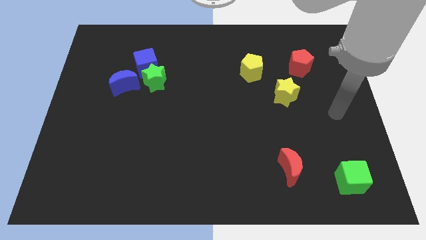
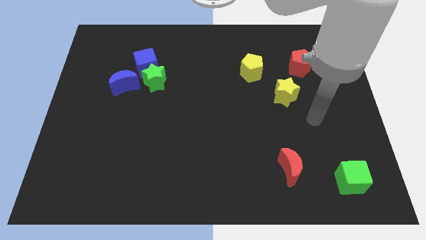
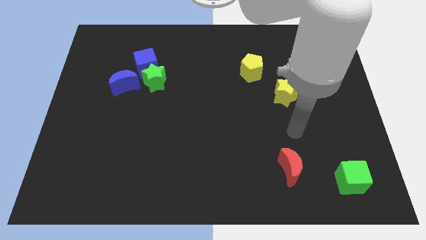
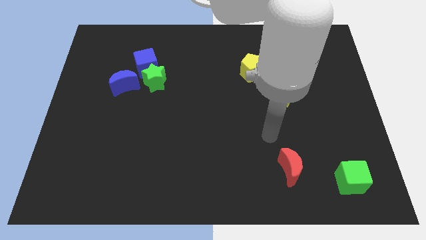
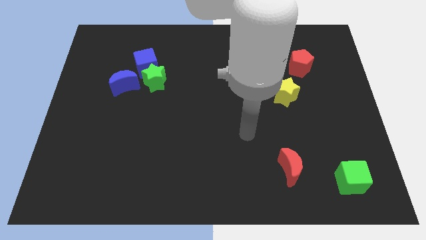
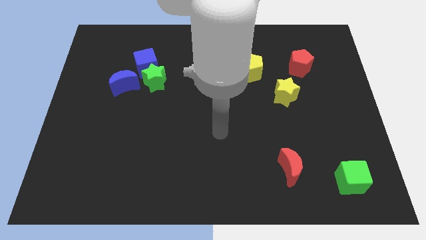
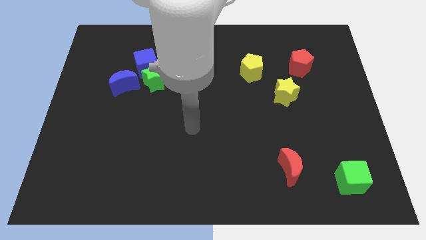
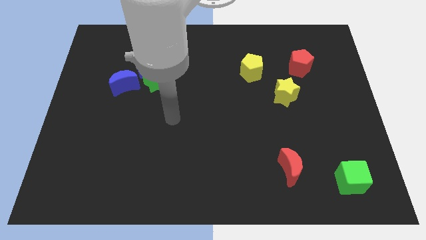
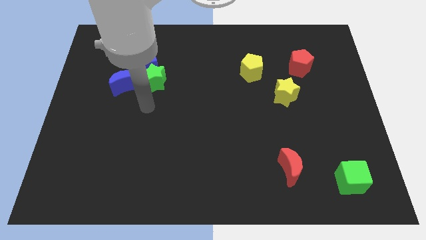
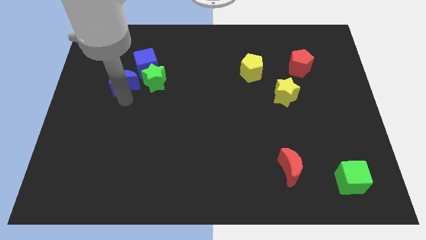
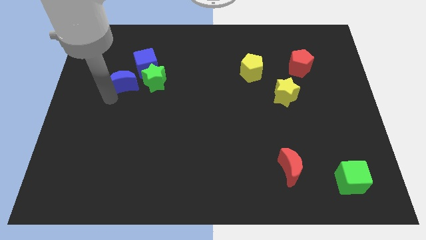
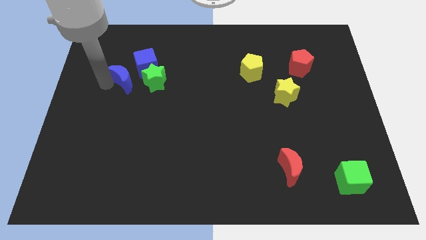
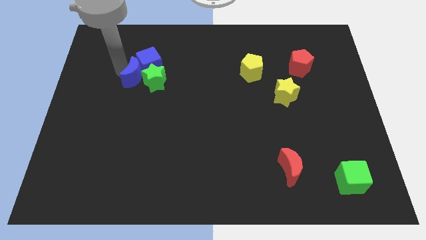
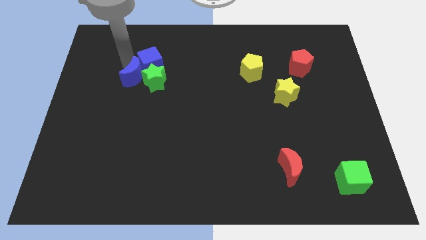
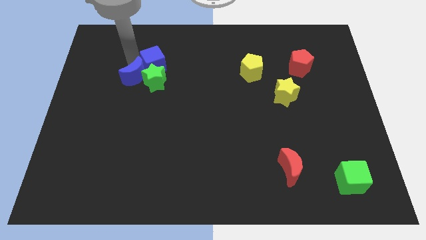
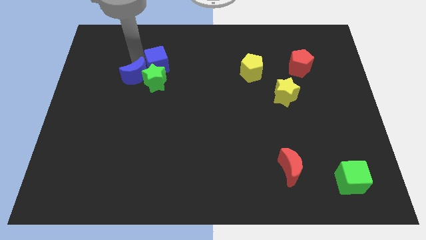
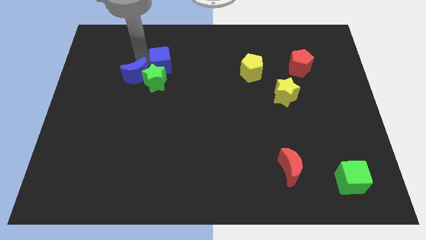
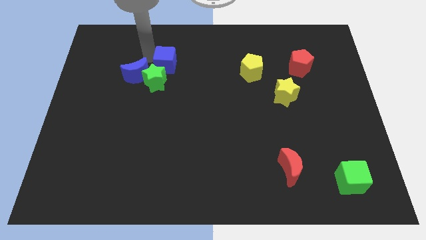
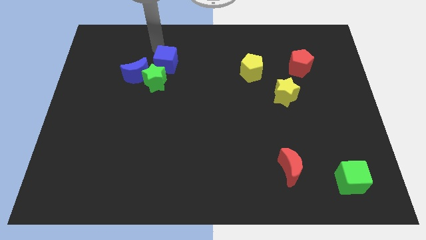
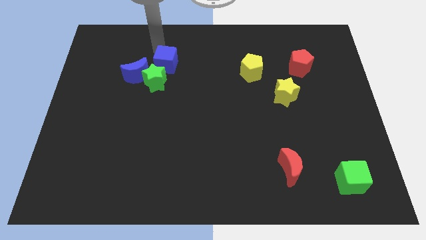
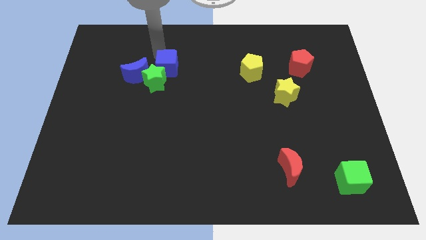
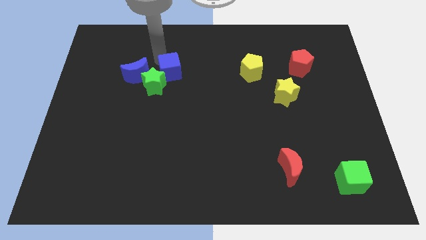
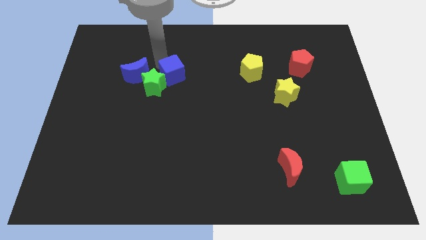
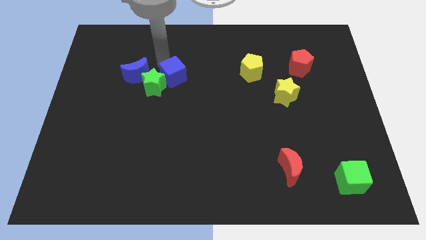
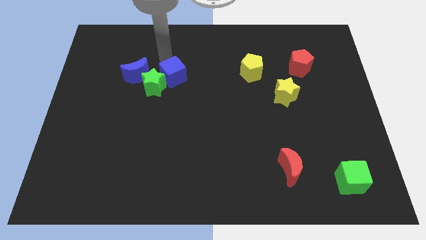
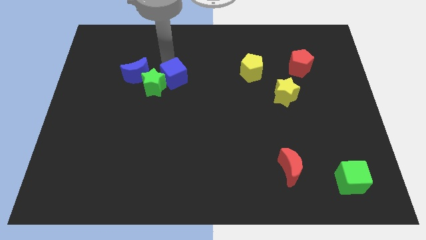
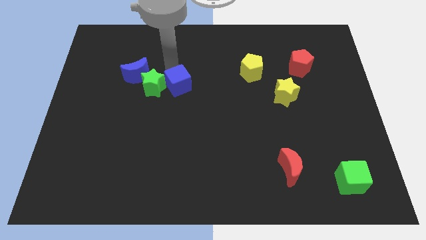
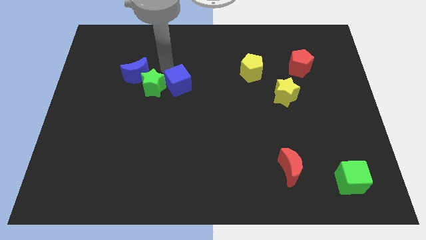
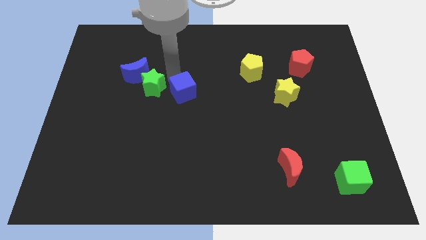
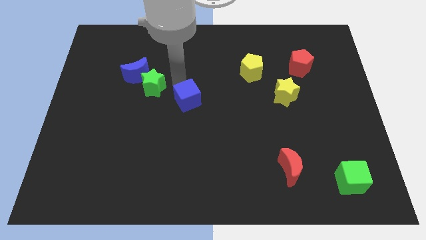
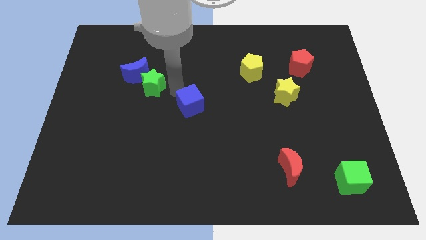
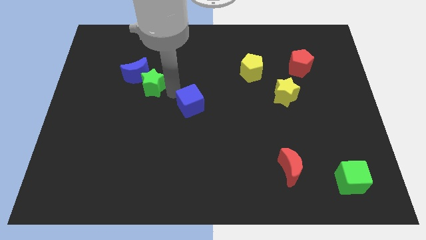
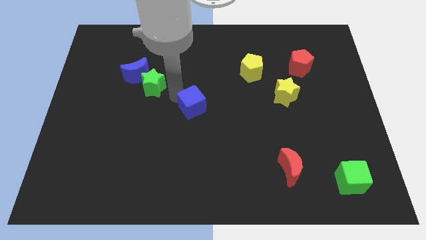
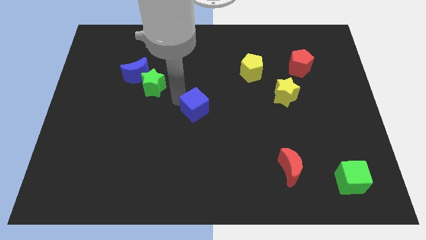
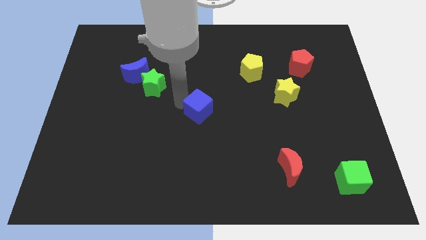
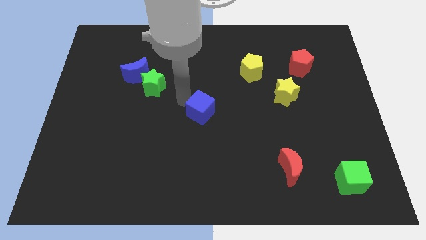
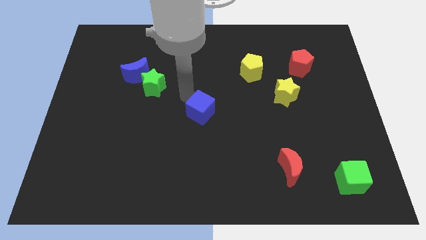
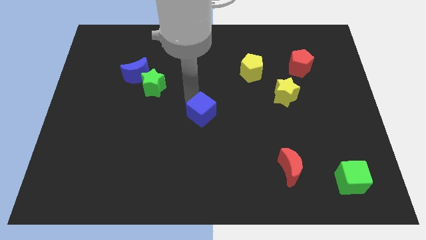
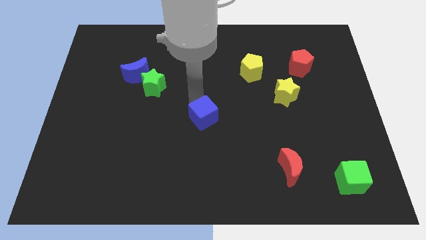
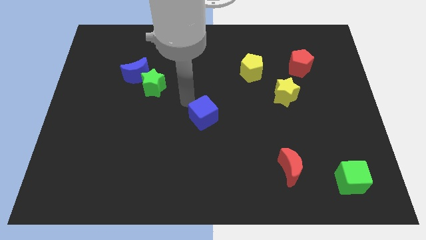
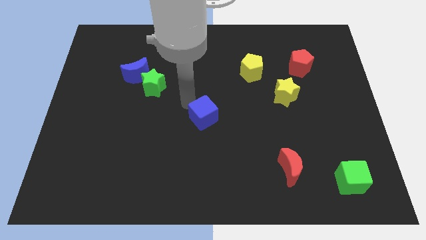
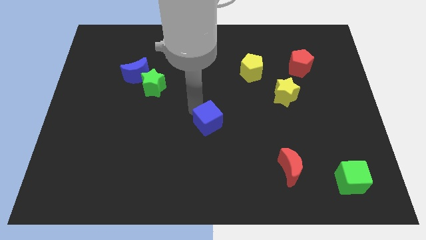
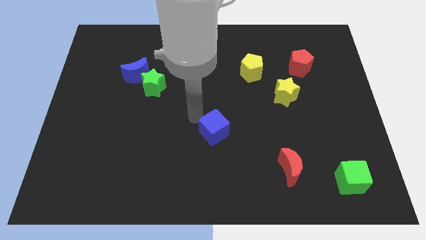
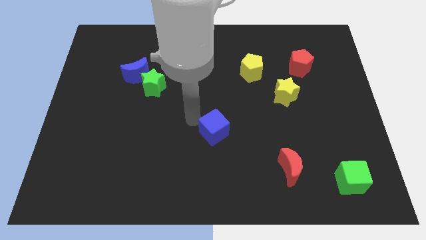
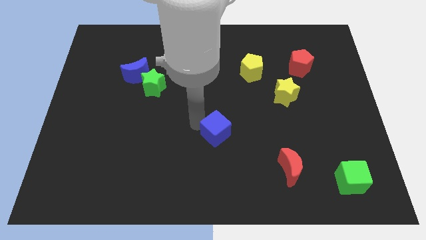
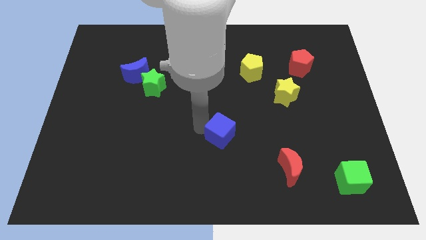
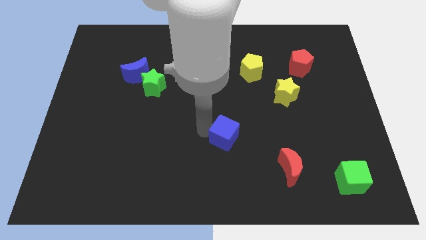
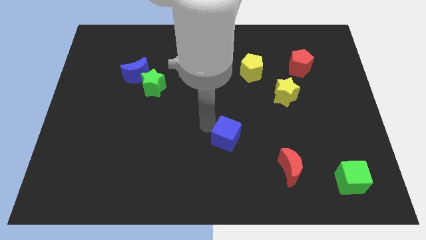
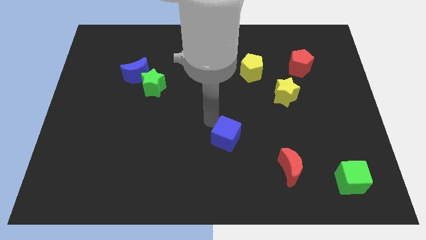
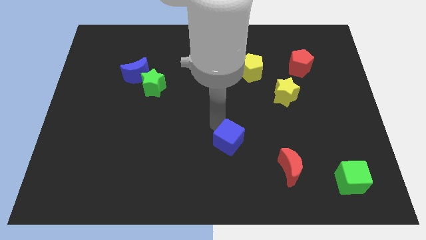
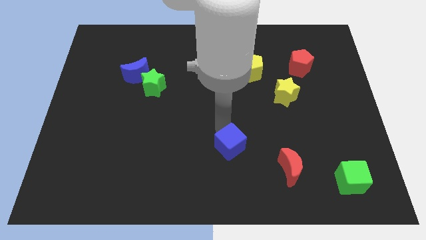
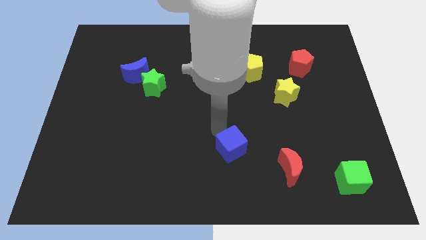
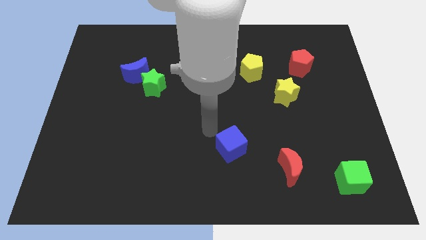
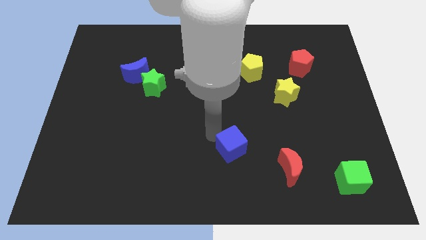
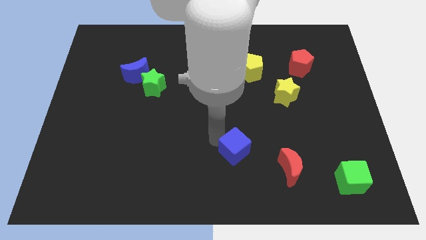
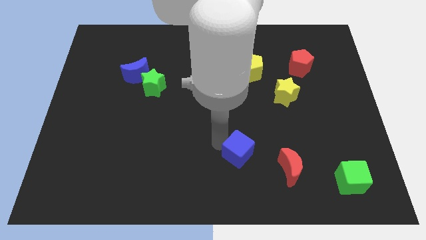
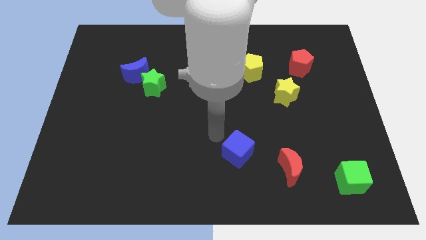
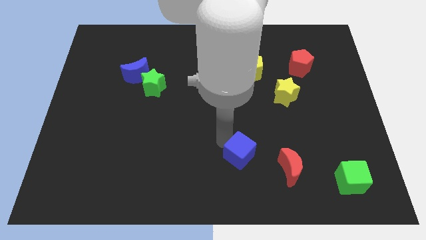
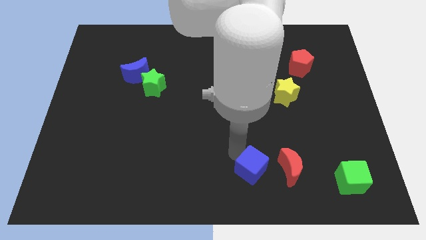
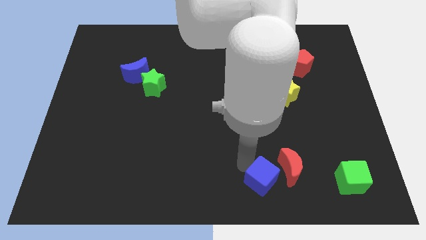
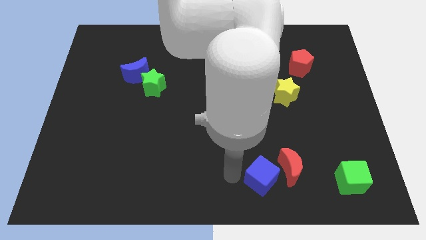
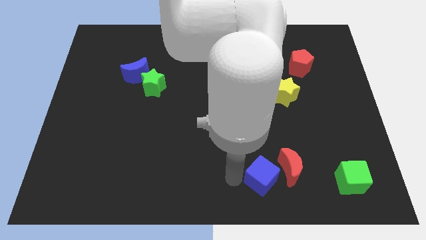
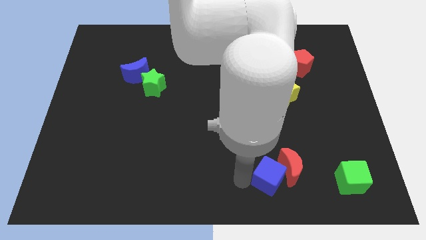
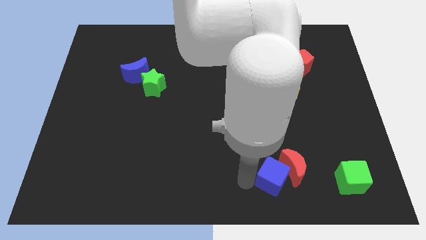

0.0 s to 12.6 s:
push the blue cube to the left of the green cube
